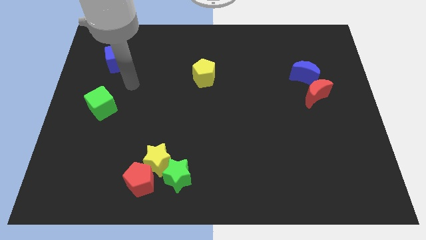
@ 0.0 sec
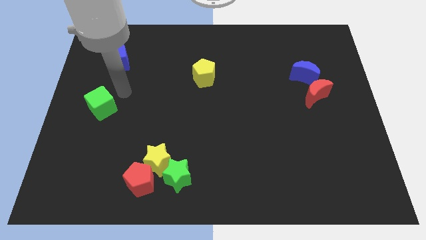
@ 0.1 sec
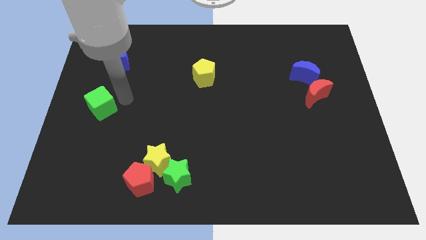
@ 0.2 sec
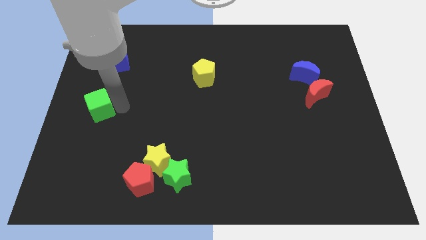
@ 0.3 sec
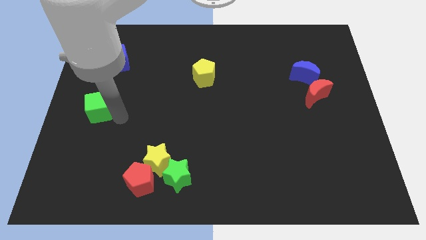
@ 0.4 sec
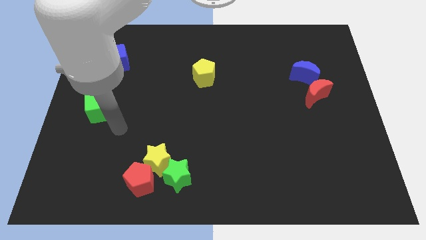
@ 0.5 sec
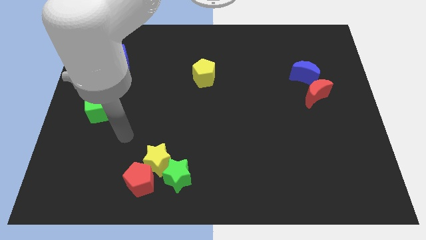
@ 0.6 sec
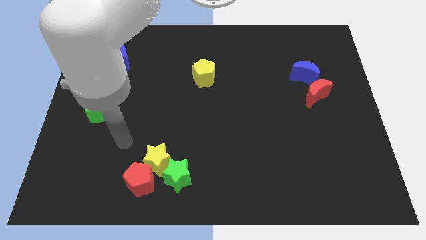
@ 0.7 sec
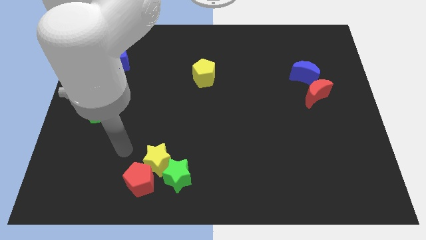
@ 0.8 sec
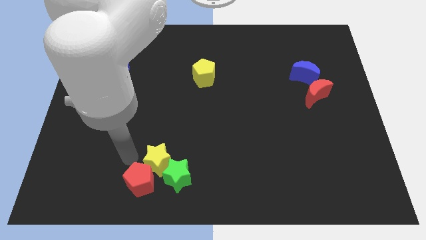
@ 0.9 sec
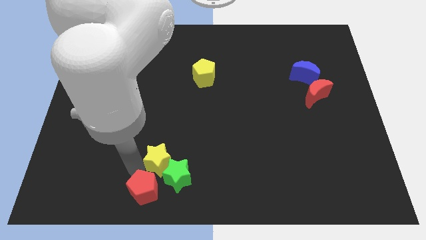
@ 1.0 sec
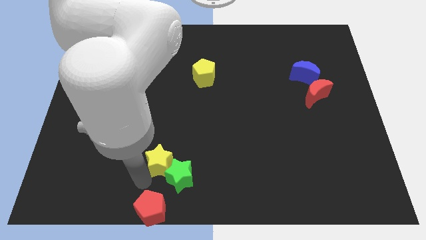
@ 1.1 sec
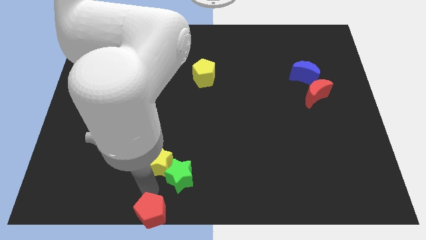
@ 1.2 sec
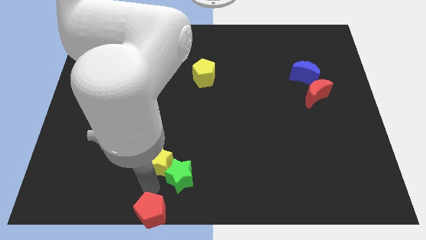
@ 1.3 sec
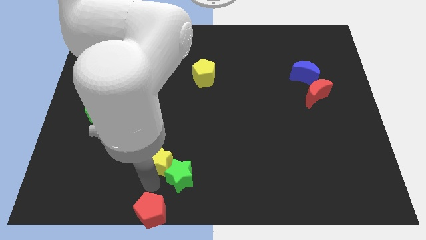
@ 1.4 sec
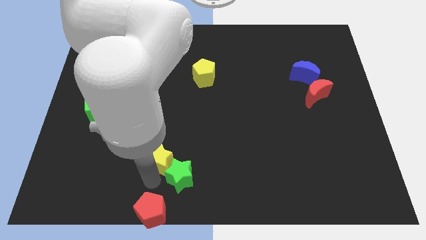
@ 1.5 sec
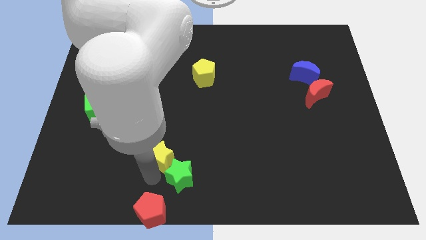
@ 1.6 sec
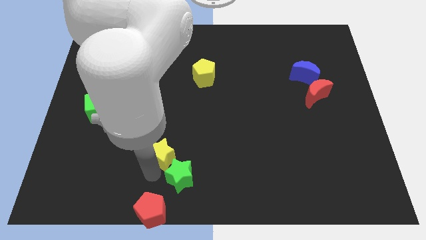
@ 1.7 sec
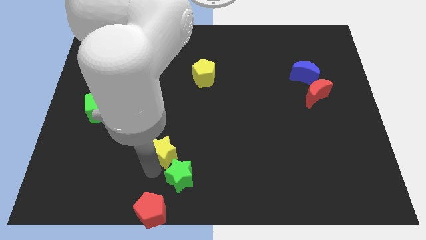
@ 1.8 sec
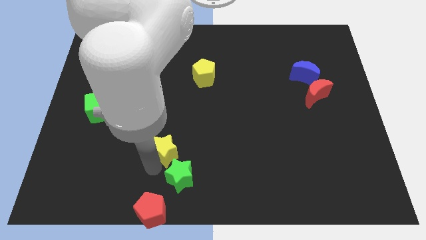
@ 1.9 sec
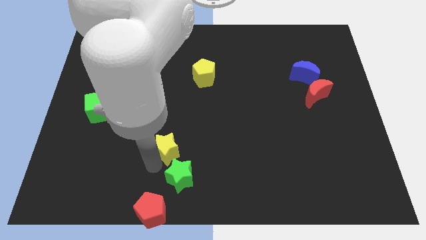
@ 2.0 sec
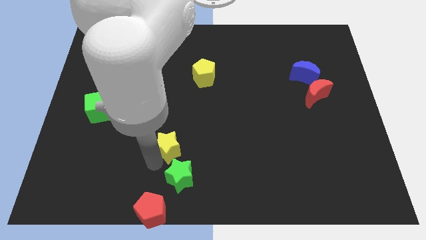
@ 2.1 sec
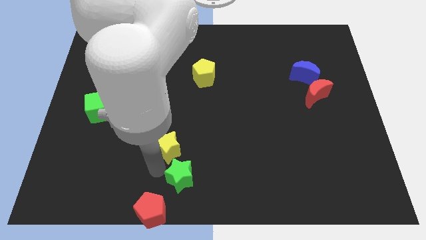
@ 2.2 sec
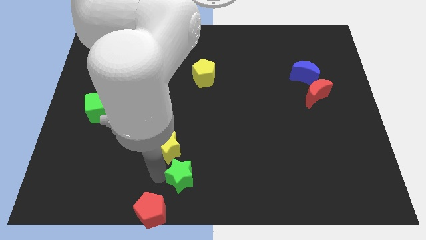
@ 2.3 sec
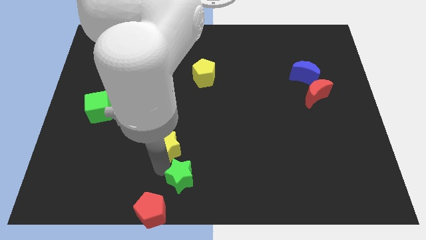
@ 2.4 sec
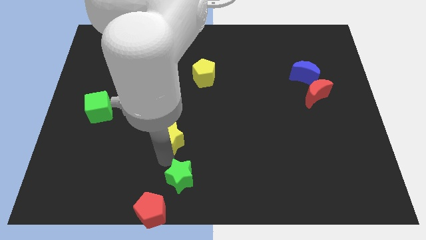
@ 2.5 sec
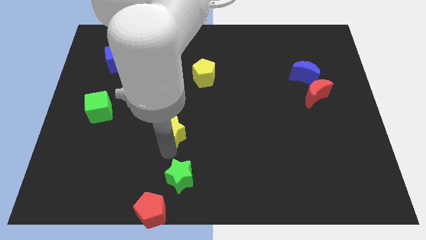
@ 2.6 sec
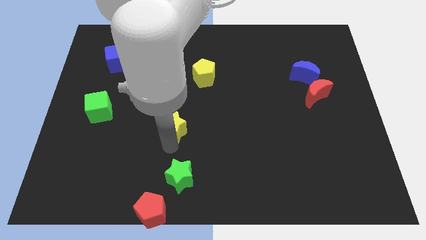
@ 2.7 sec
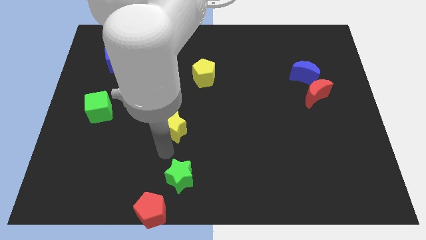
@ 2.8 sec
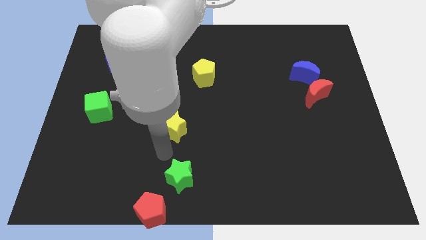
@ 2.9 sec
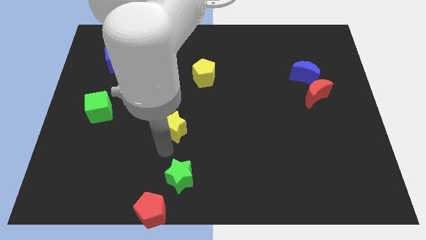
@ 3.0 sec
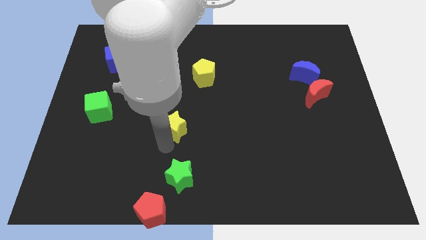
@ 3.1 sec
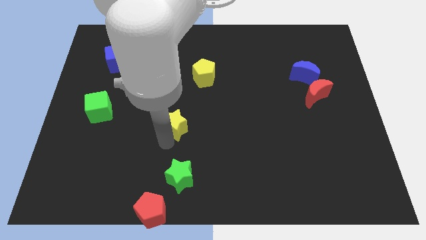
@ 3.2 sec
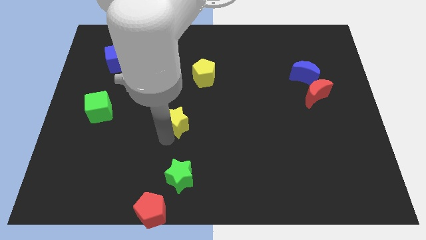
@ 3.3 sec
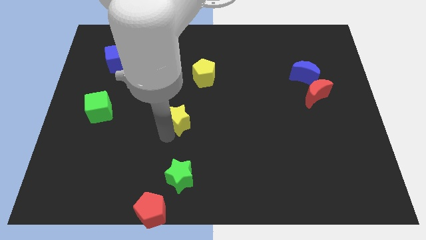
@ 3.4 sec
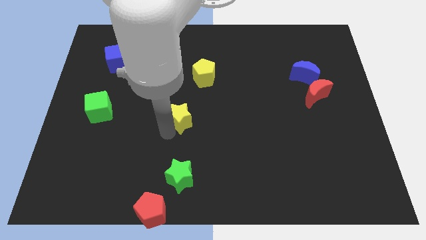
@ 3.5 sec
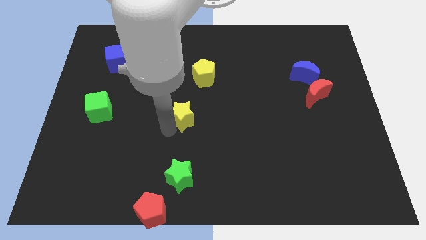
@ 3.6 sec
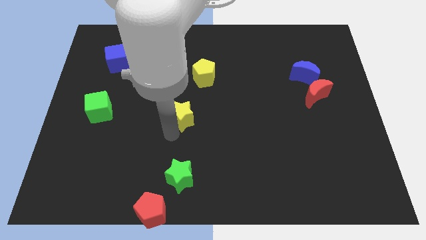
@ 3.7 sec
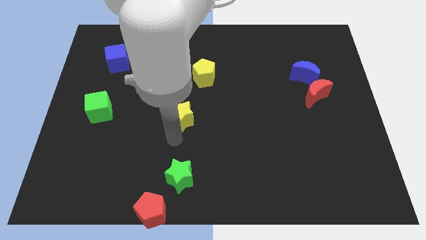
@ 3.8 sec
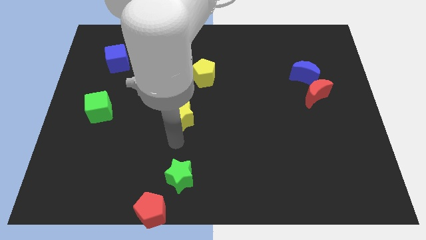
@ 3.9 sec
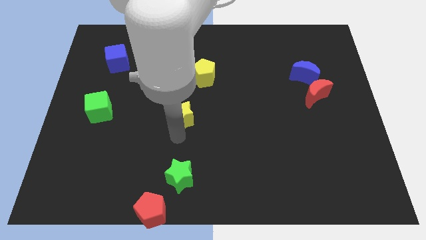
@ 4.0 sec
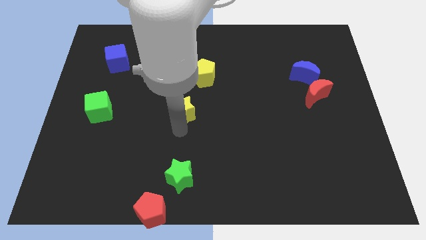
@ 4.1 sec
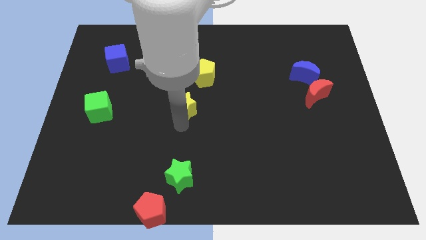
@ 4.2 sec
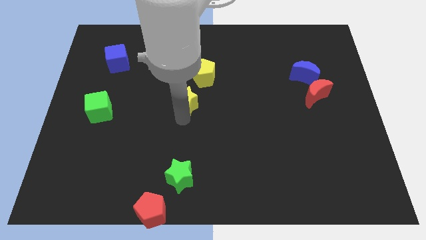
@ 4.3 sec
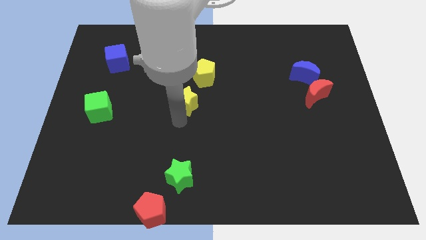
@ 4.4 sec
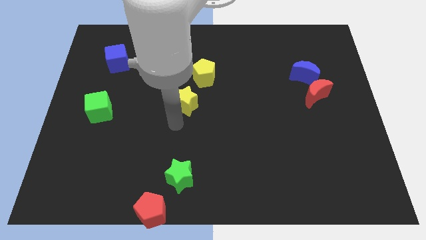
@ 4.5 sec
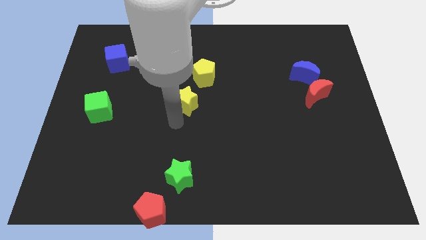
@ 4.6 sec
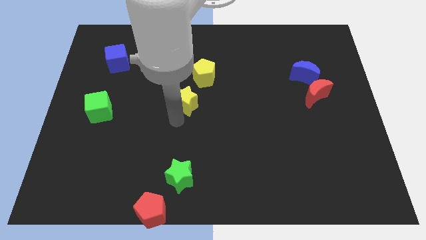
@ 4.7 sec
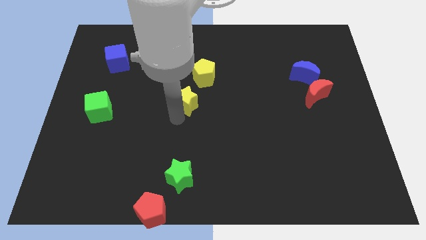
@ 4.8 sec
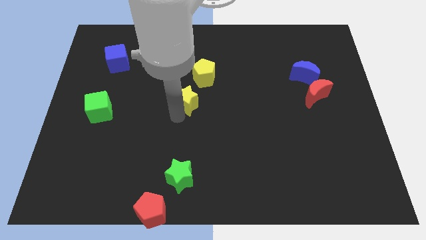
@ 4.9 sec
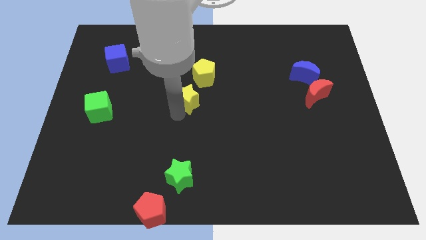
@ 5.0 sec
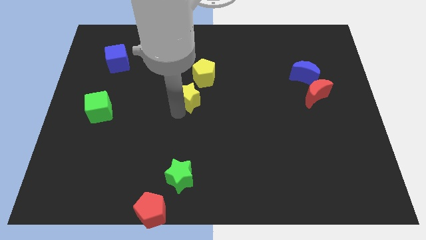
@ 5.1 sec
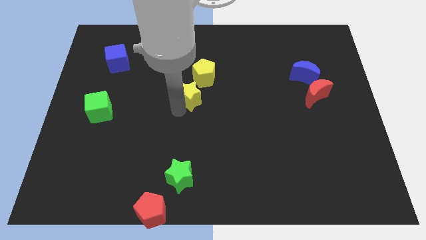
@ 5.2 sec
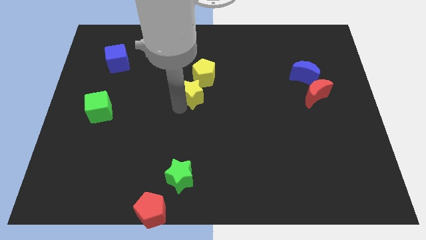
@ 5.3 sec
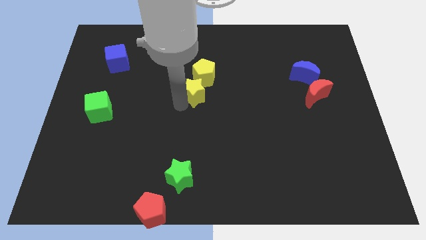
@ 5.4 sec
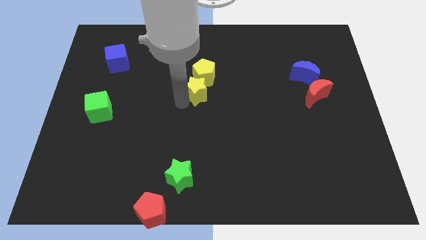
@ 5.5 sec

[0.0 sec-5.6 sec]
slide the yellow star to the yellow pentagon

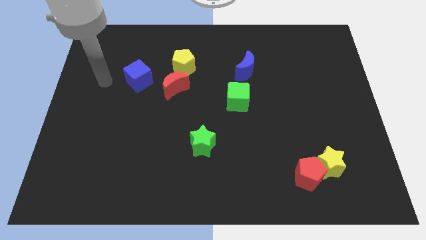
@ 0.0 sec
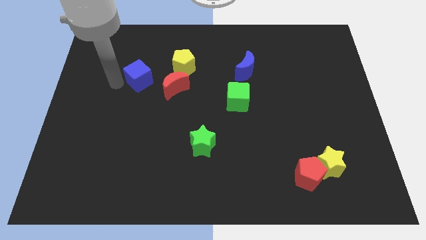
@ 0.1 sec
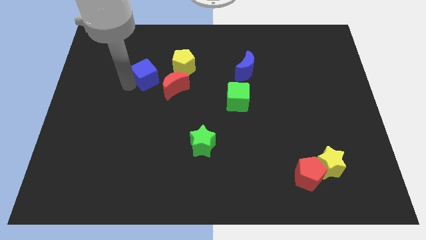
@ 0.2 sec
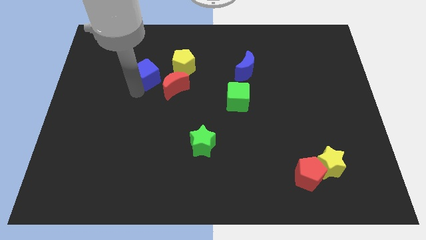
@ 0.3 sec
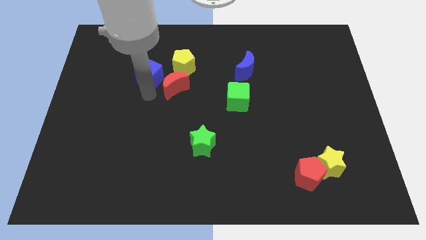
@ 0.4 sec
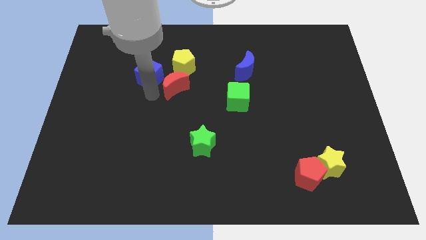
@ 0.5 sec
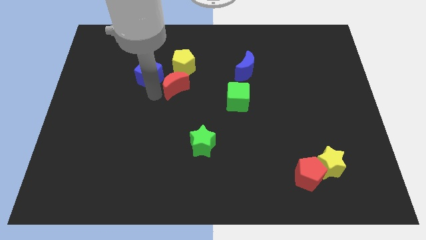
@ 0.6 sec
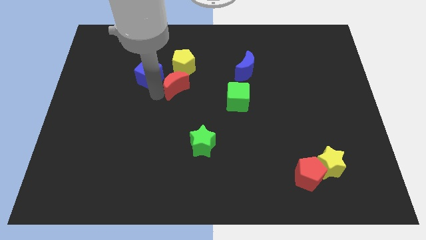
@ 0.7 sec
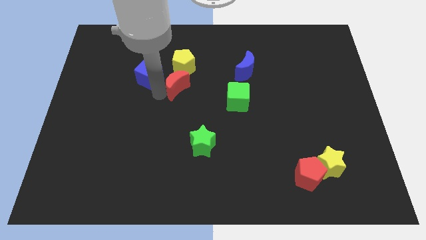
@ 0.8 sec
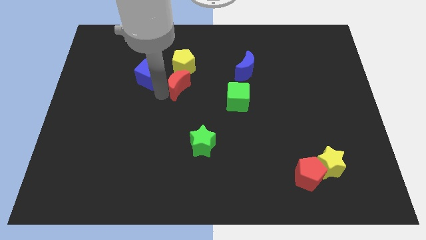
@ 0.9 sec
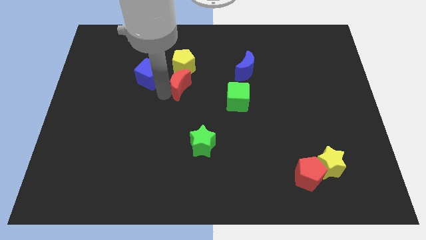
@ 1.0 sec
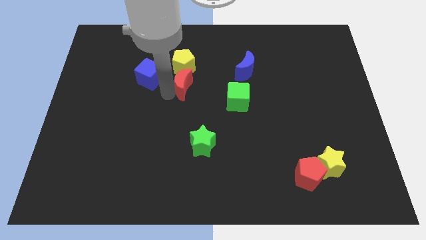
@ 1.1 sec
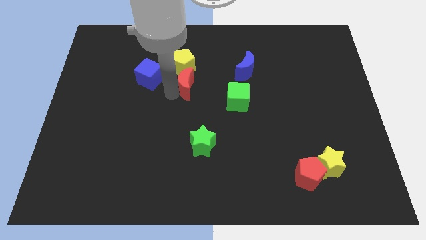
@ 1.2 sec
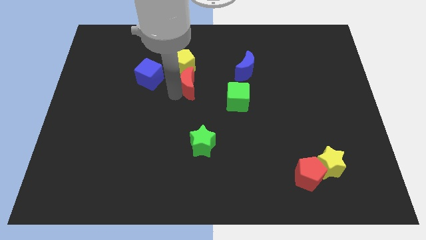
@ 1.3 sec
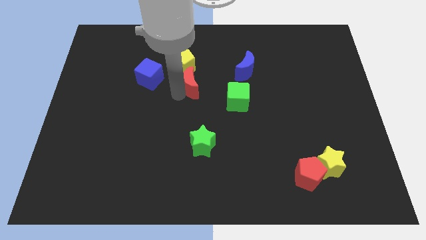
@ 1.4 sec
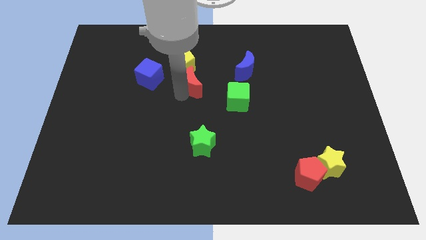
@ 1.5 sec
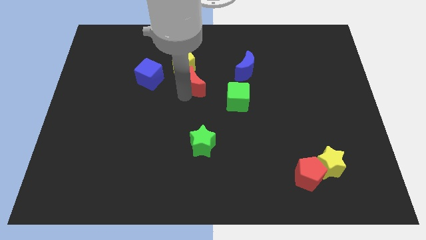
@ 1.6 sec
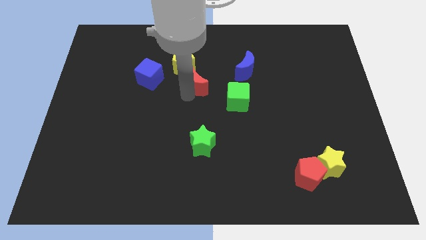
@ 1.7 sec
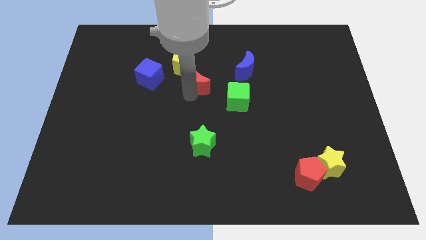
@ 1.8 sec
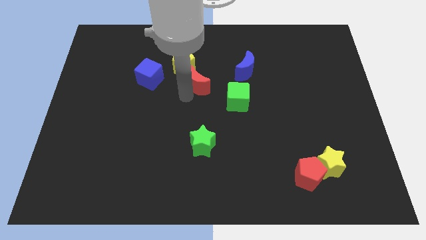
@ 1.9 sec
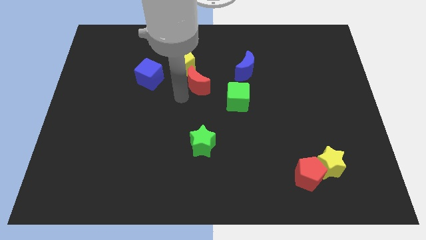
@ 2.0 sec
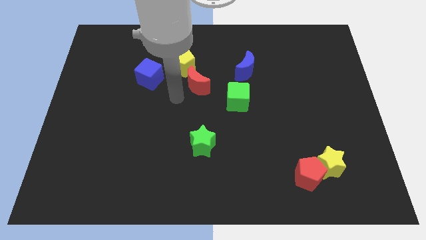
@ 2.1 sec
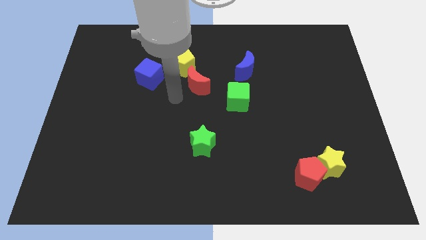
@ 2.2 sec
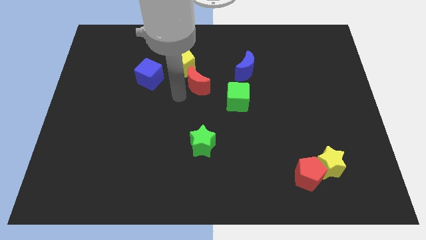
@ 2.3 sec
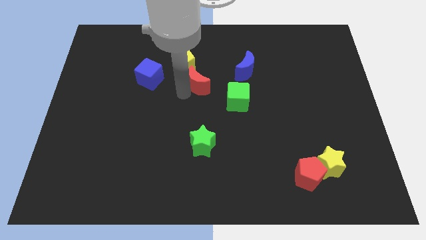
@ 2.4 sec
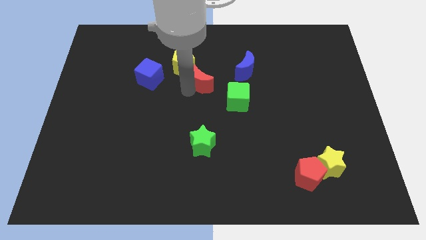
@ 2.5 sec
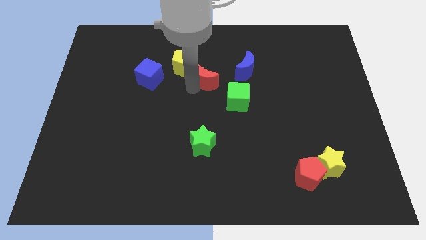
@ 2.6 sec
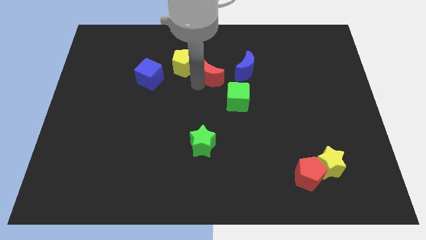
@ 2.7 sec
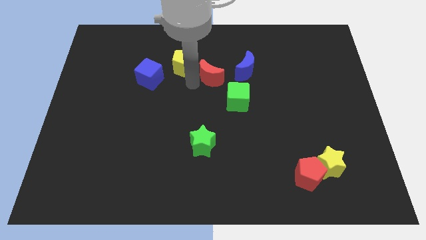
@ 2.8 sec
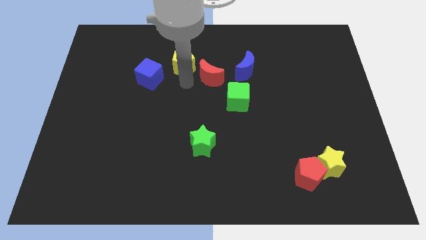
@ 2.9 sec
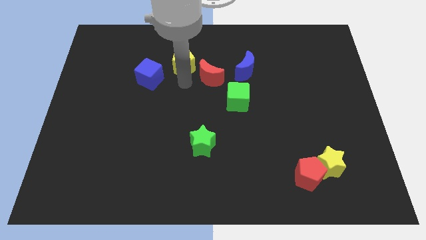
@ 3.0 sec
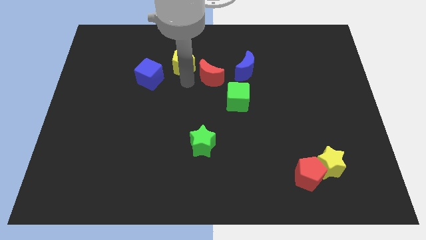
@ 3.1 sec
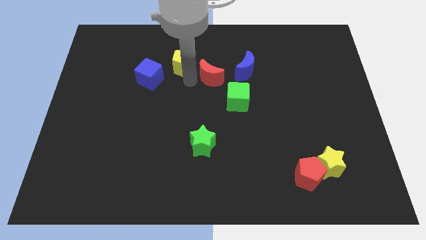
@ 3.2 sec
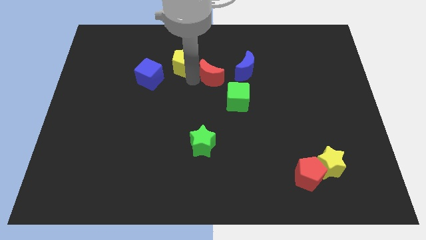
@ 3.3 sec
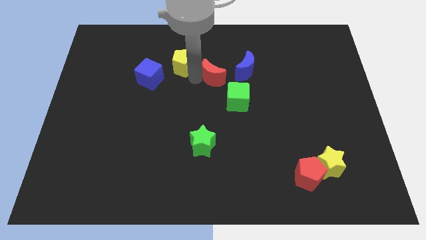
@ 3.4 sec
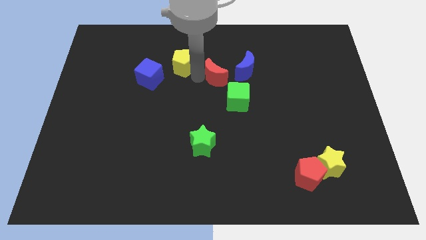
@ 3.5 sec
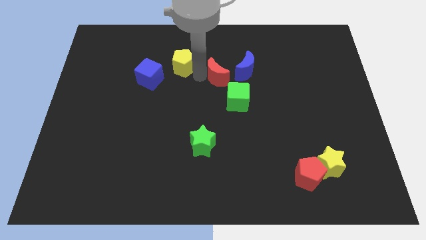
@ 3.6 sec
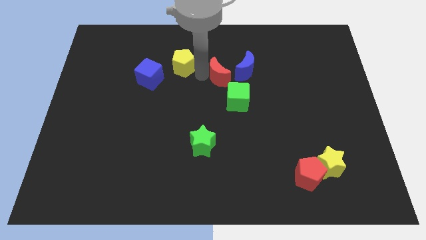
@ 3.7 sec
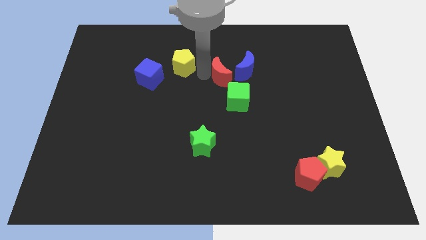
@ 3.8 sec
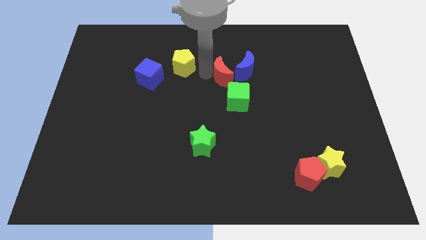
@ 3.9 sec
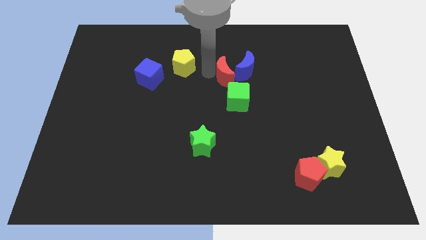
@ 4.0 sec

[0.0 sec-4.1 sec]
push the red moon to the blue moon
